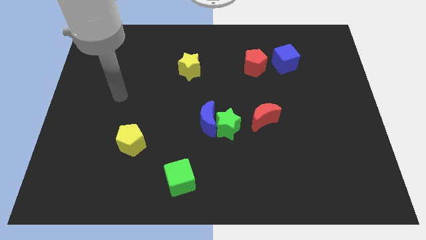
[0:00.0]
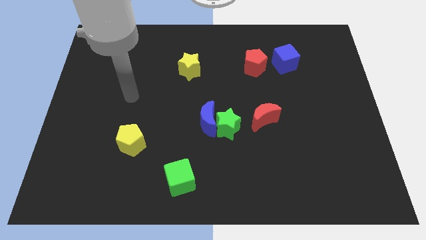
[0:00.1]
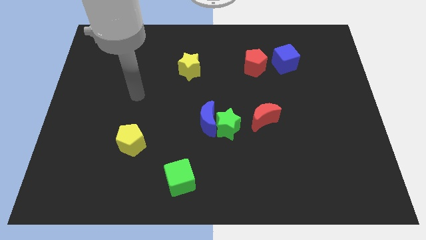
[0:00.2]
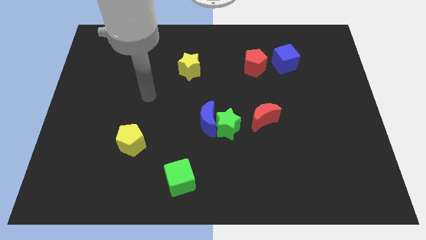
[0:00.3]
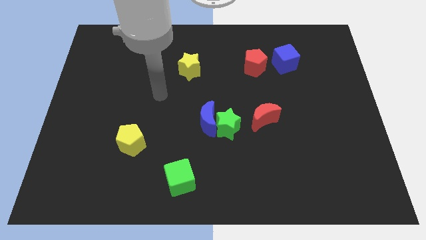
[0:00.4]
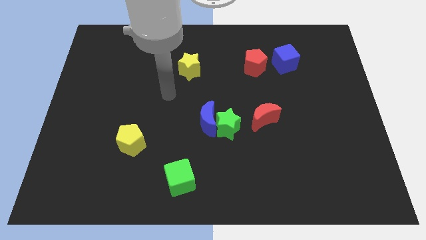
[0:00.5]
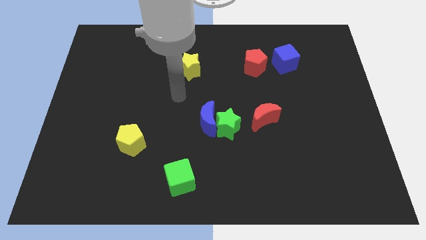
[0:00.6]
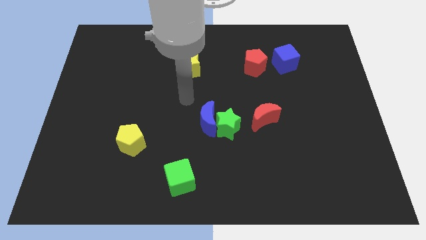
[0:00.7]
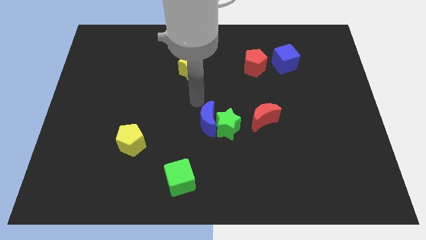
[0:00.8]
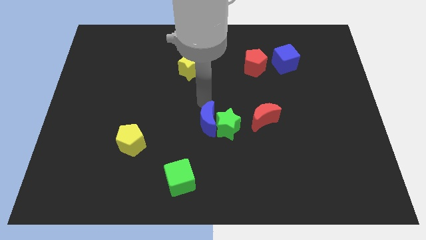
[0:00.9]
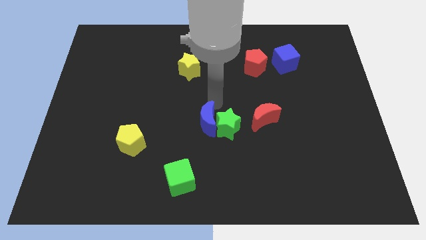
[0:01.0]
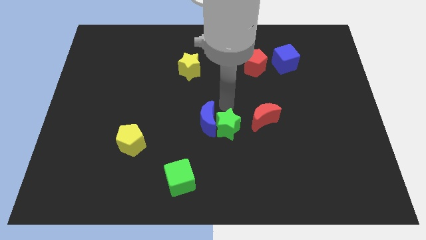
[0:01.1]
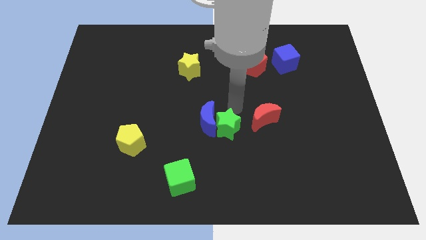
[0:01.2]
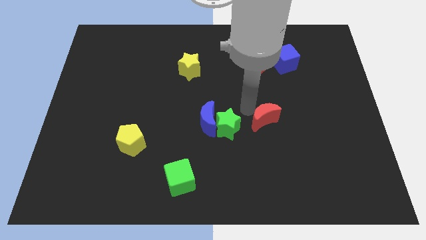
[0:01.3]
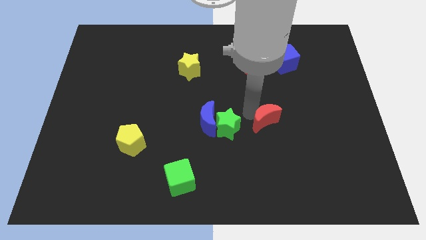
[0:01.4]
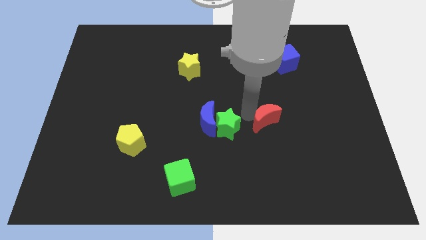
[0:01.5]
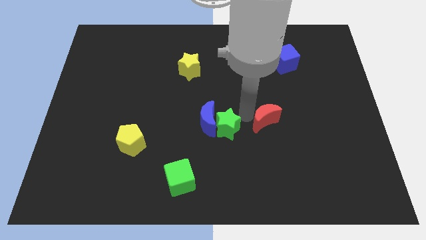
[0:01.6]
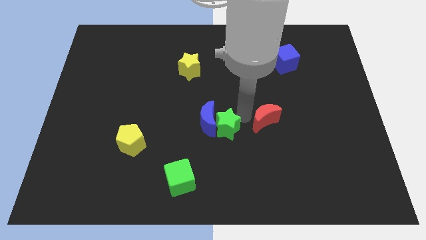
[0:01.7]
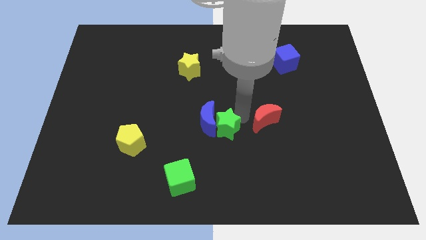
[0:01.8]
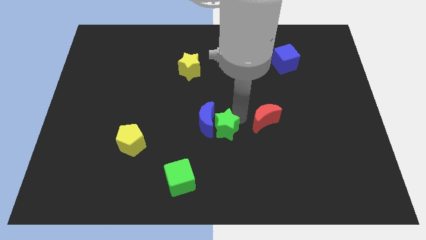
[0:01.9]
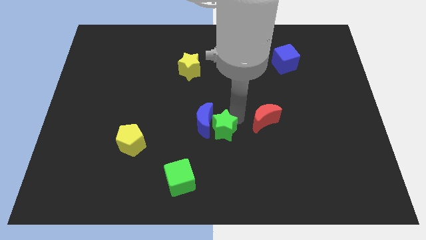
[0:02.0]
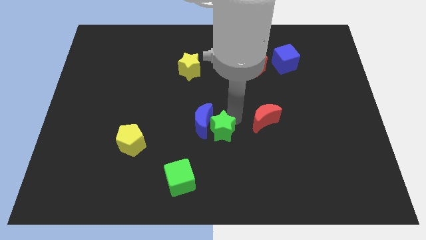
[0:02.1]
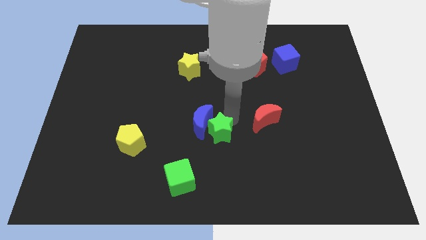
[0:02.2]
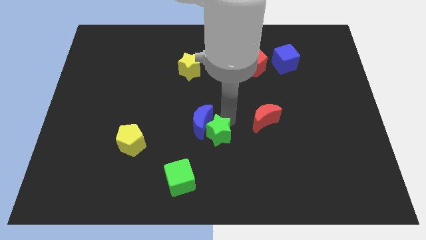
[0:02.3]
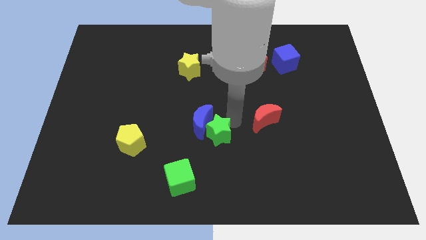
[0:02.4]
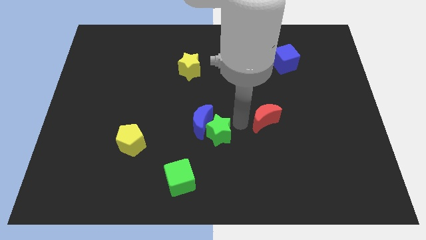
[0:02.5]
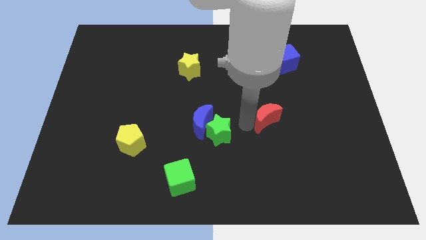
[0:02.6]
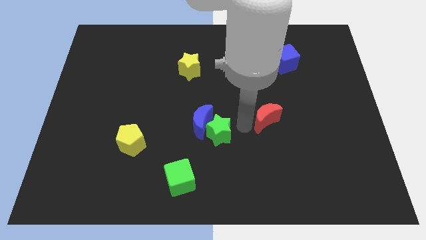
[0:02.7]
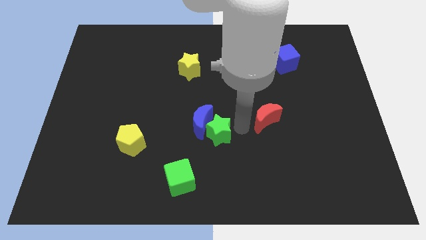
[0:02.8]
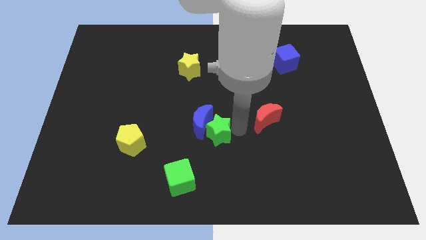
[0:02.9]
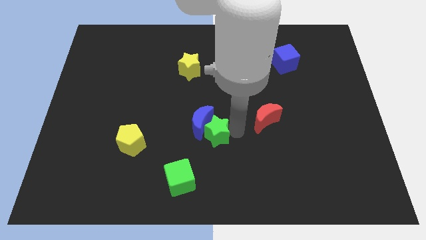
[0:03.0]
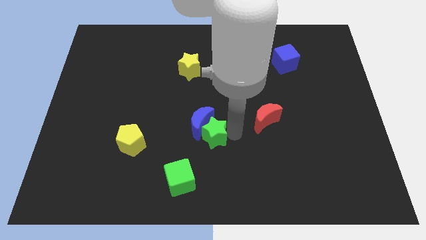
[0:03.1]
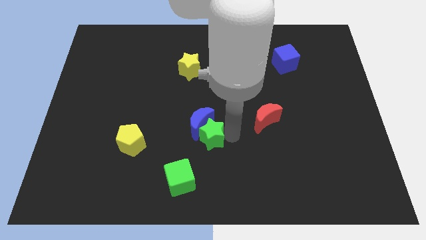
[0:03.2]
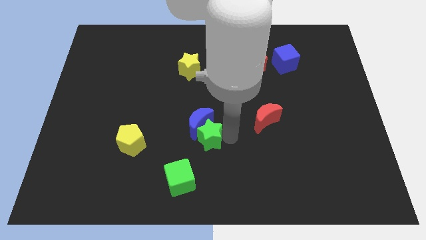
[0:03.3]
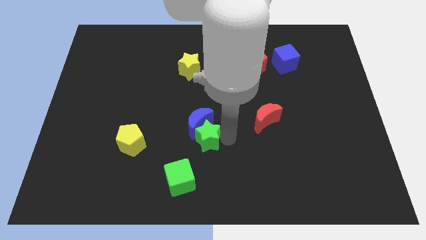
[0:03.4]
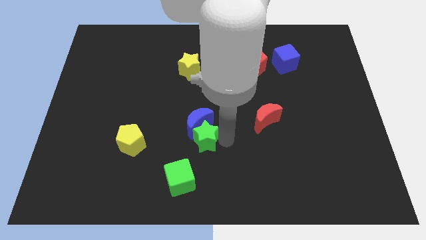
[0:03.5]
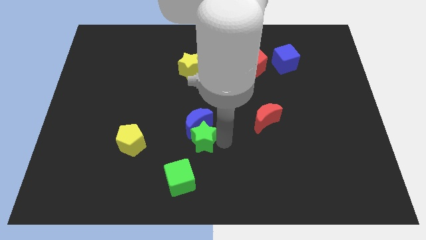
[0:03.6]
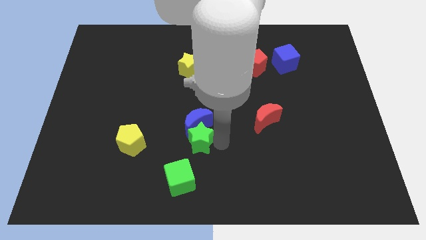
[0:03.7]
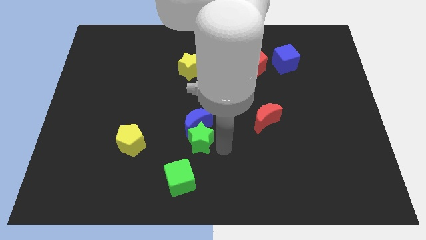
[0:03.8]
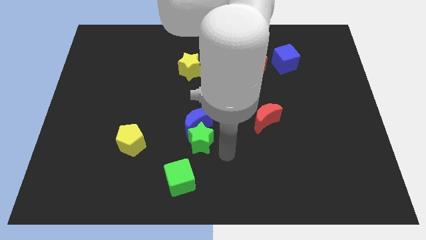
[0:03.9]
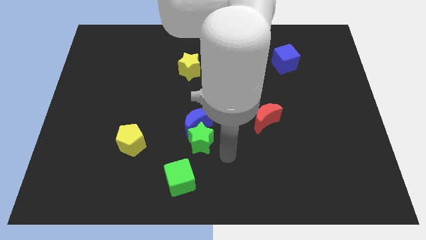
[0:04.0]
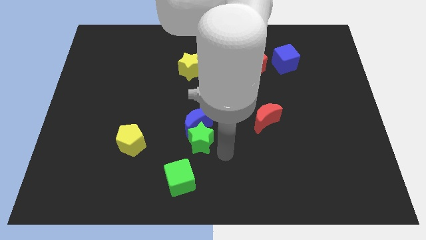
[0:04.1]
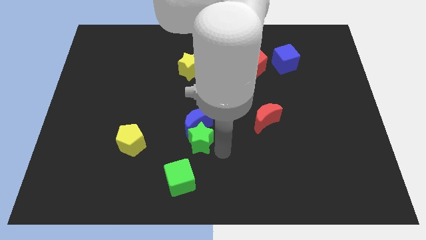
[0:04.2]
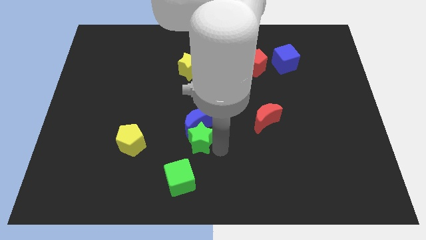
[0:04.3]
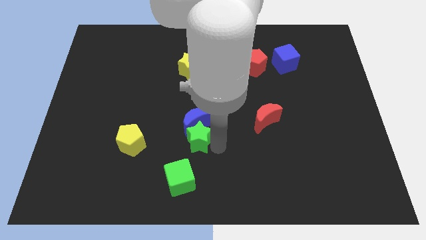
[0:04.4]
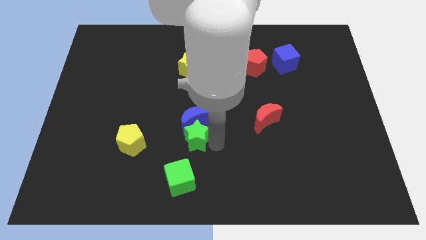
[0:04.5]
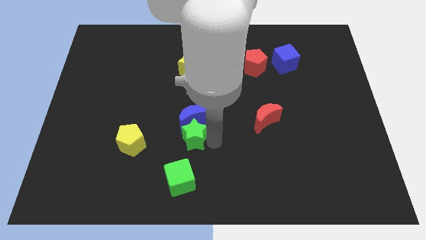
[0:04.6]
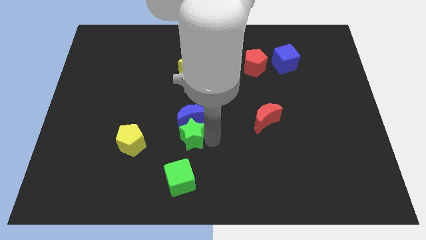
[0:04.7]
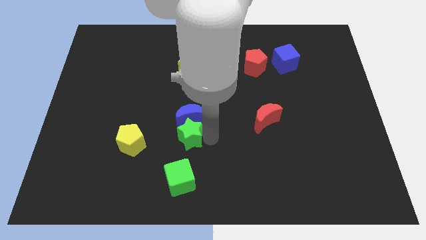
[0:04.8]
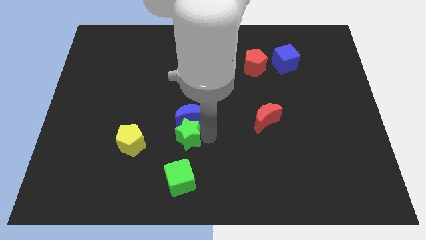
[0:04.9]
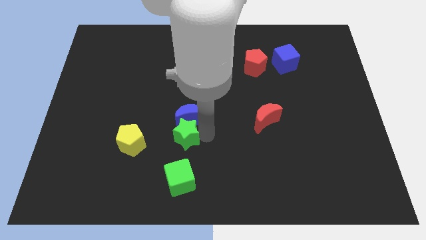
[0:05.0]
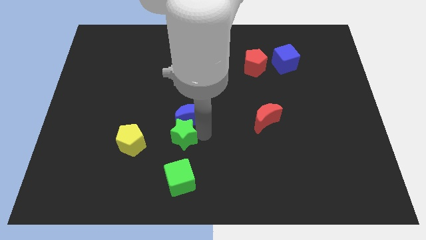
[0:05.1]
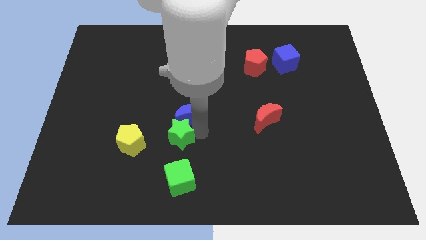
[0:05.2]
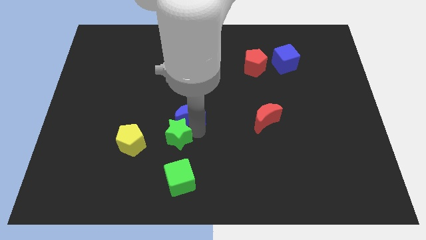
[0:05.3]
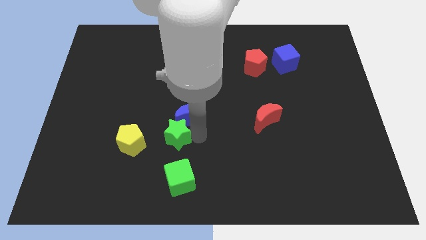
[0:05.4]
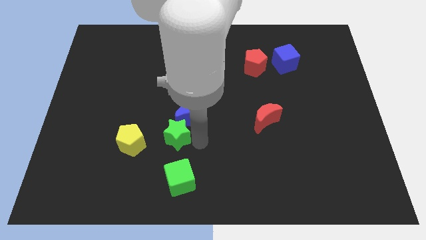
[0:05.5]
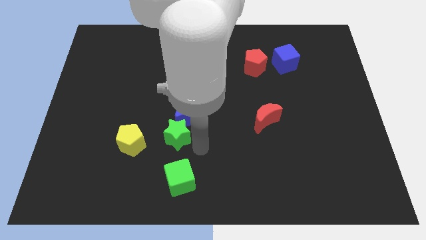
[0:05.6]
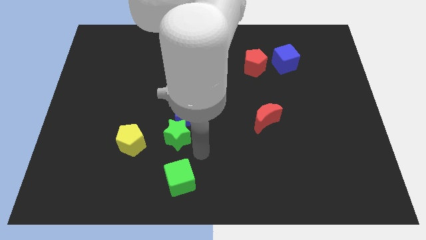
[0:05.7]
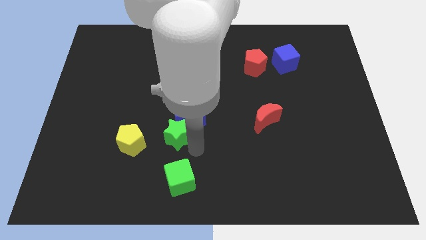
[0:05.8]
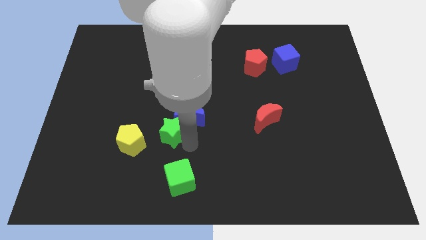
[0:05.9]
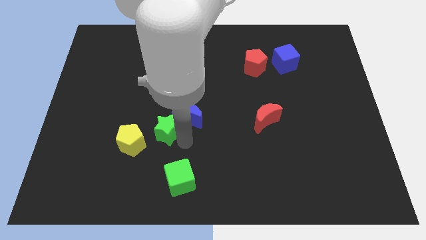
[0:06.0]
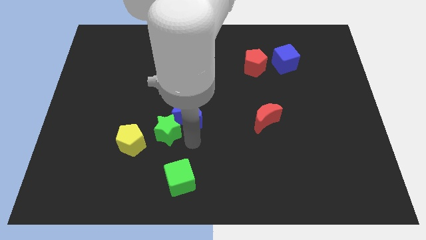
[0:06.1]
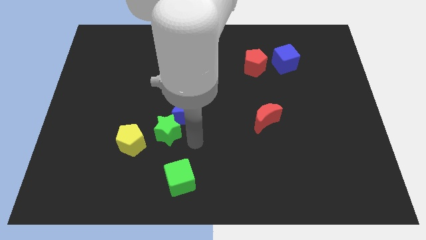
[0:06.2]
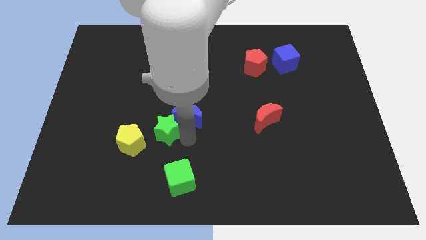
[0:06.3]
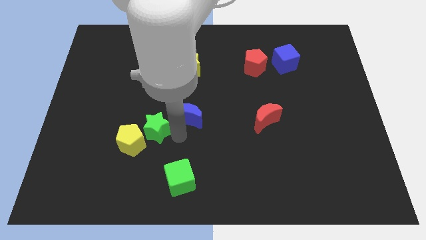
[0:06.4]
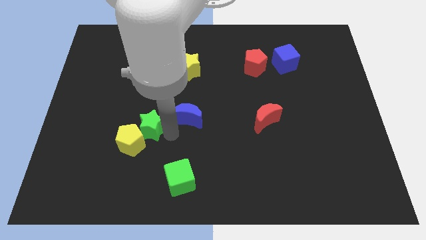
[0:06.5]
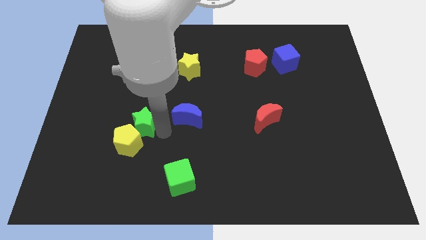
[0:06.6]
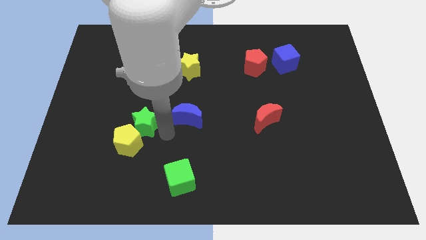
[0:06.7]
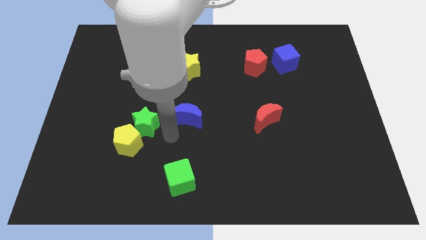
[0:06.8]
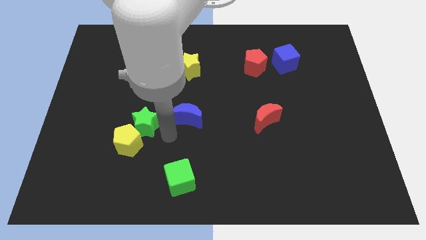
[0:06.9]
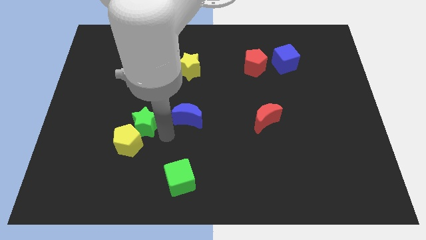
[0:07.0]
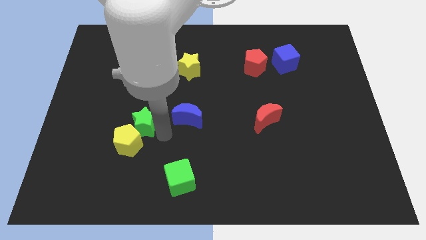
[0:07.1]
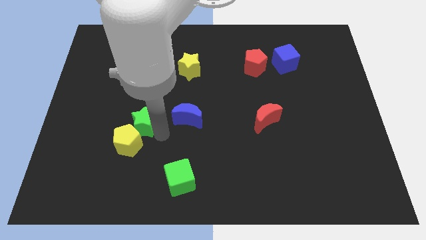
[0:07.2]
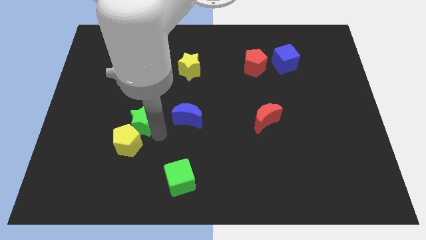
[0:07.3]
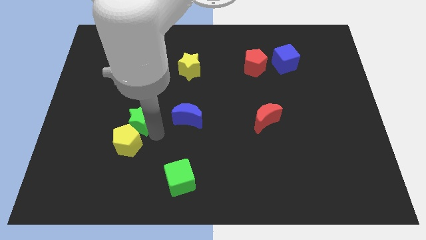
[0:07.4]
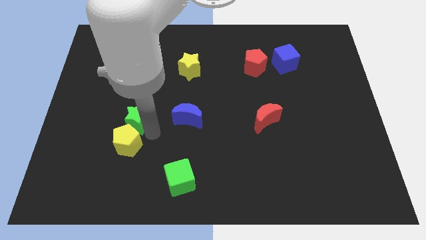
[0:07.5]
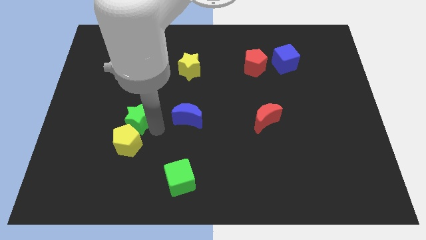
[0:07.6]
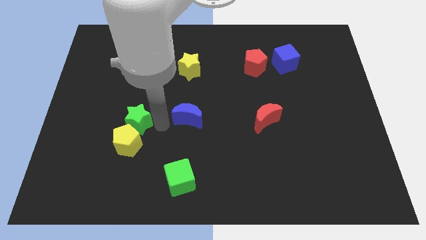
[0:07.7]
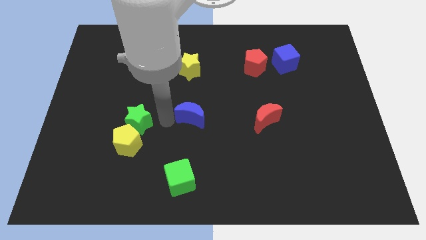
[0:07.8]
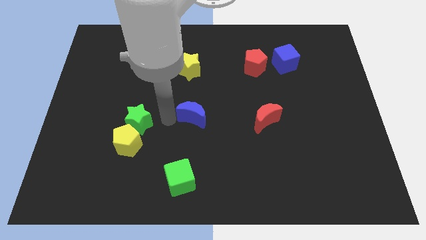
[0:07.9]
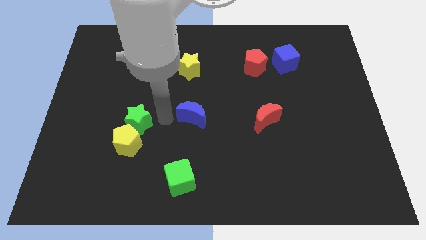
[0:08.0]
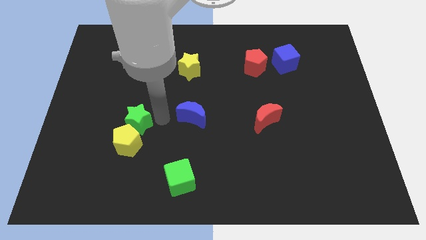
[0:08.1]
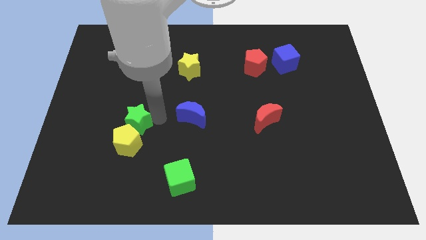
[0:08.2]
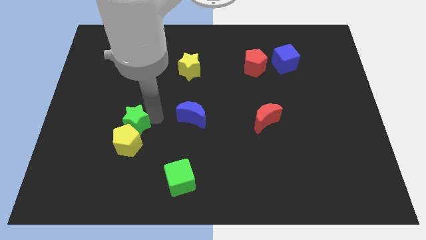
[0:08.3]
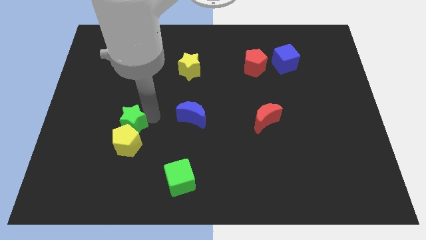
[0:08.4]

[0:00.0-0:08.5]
slide the green star to the top left side of the yellow pentagon
